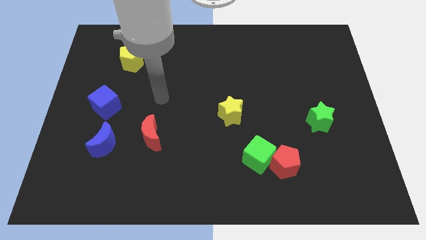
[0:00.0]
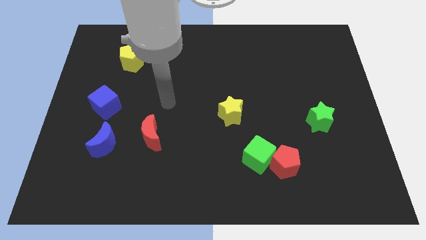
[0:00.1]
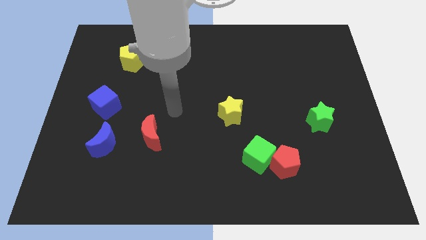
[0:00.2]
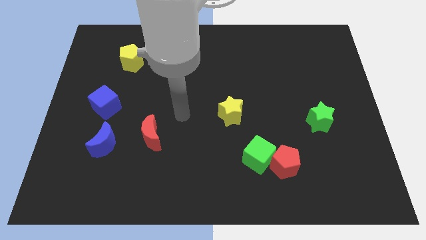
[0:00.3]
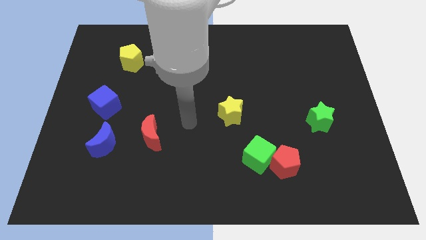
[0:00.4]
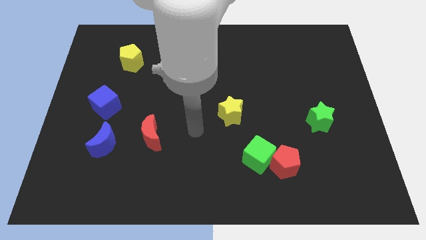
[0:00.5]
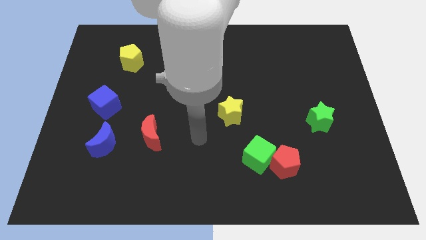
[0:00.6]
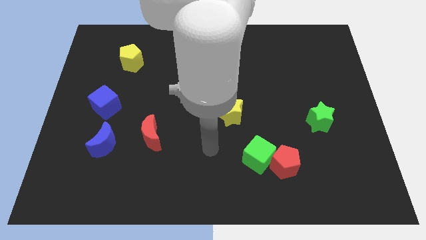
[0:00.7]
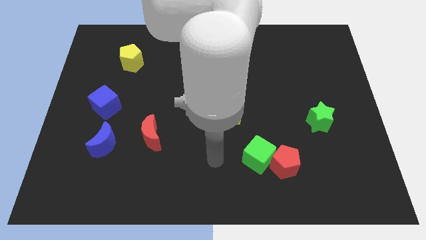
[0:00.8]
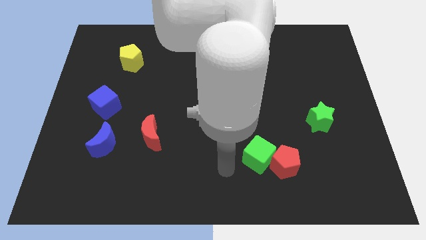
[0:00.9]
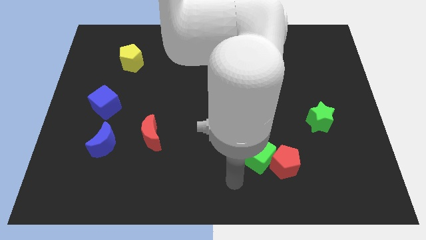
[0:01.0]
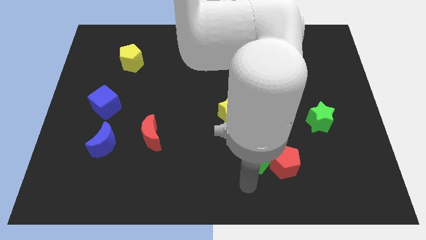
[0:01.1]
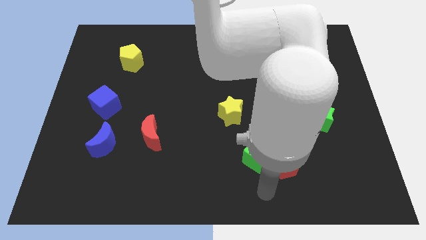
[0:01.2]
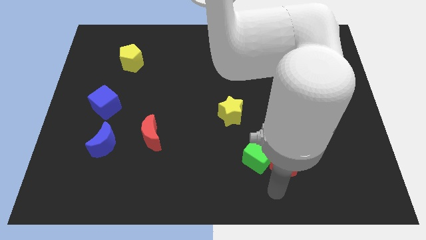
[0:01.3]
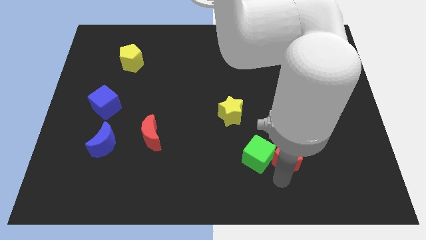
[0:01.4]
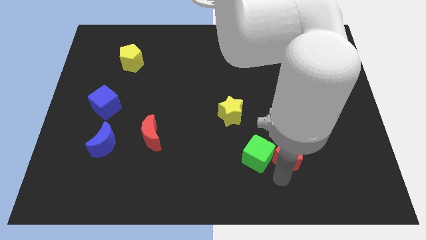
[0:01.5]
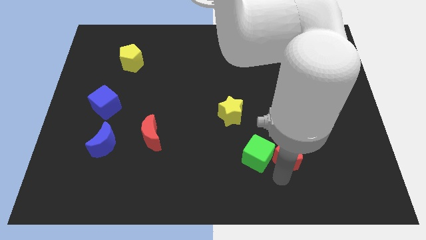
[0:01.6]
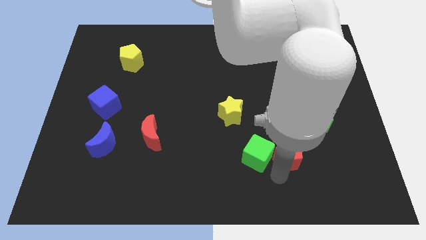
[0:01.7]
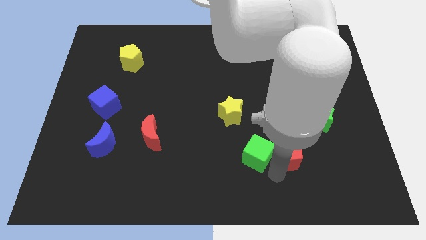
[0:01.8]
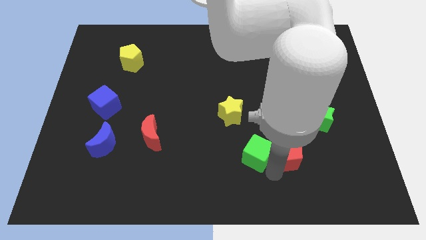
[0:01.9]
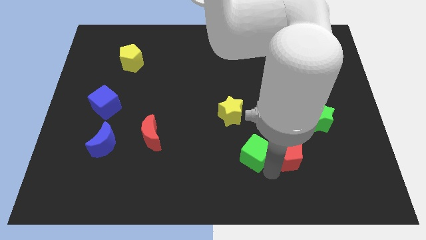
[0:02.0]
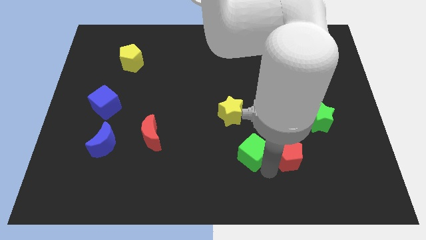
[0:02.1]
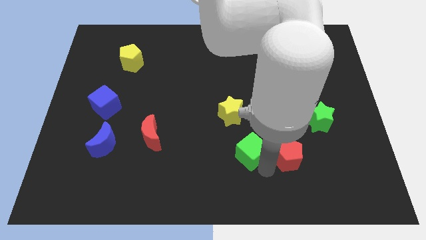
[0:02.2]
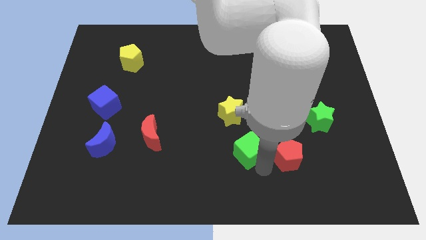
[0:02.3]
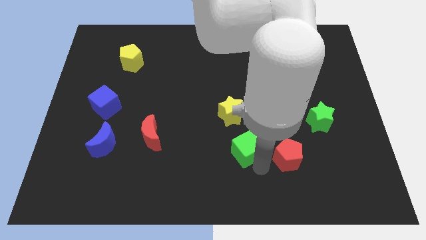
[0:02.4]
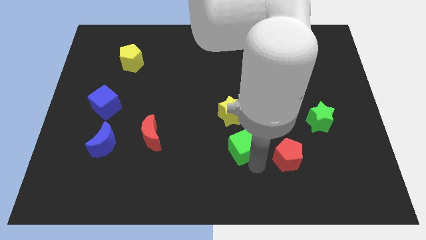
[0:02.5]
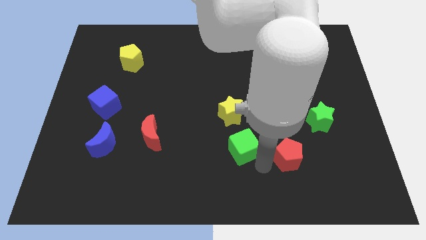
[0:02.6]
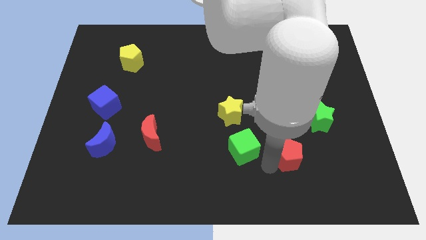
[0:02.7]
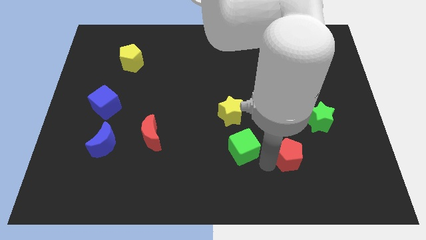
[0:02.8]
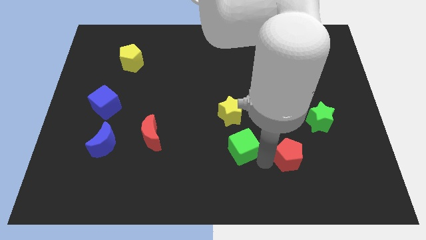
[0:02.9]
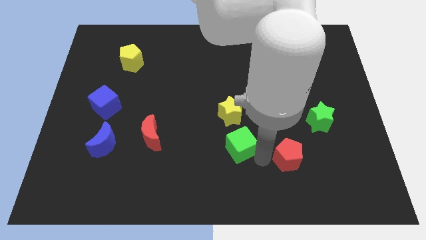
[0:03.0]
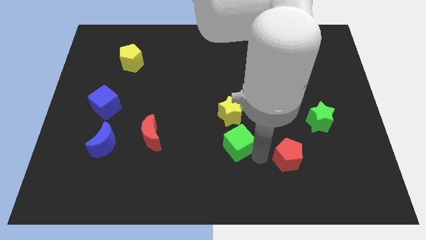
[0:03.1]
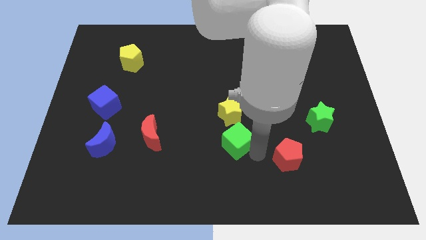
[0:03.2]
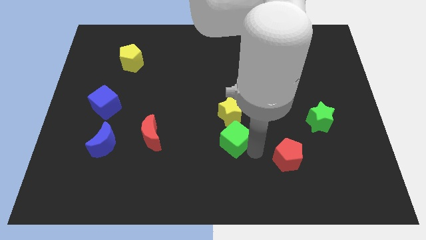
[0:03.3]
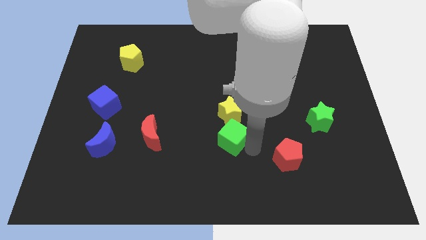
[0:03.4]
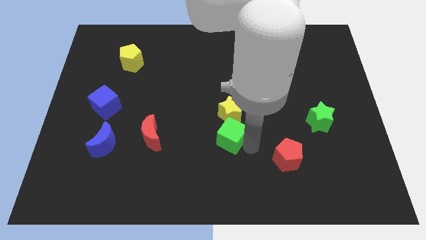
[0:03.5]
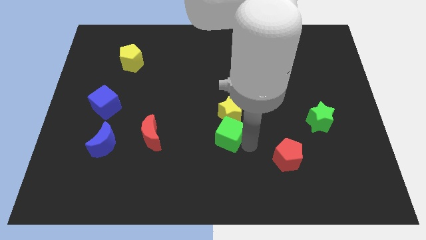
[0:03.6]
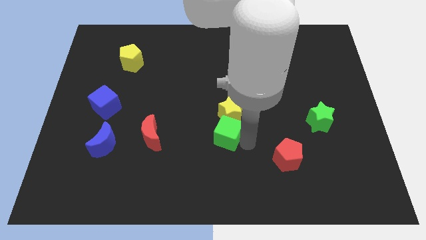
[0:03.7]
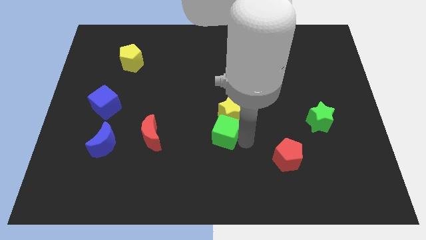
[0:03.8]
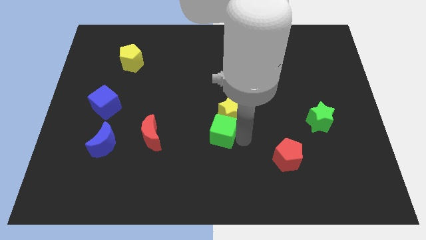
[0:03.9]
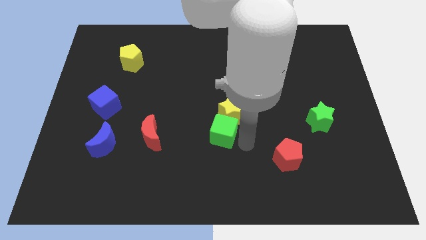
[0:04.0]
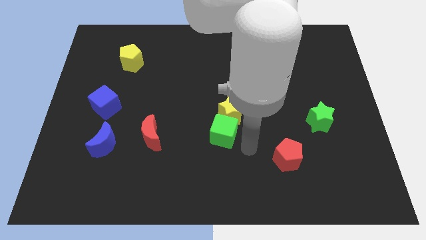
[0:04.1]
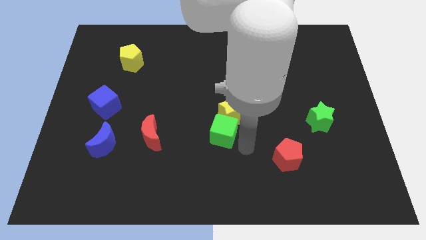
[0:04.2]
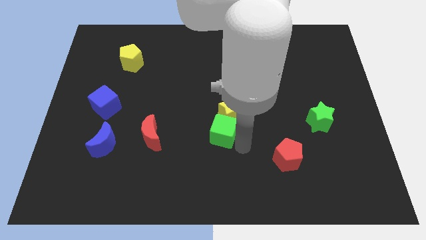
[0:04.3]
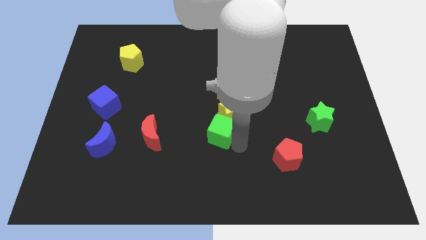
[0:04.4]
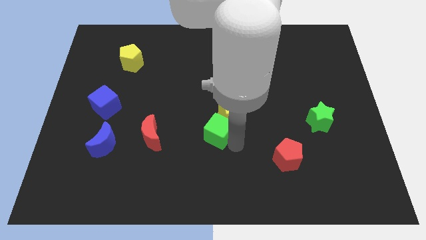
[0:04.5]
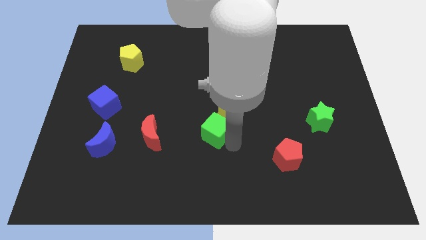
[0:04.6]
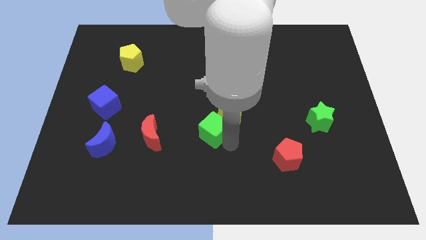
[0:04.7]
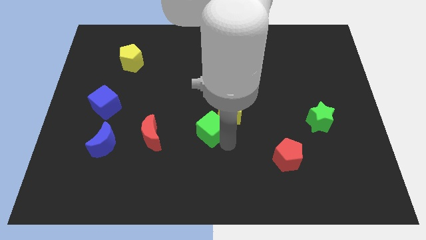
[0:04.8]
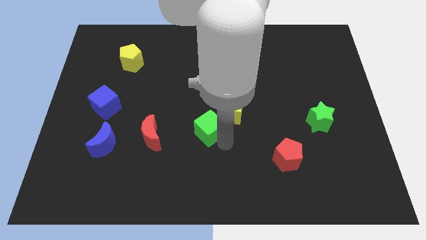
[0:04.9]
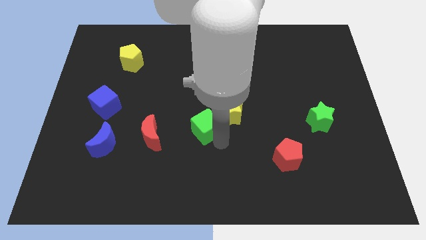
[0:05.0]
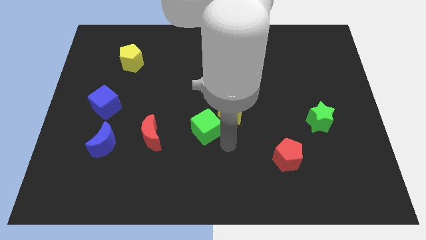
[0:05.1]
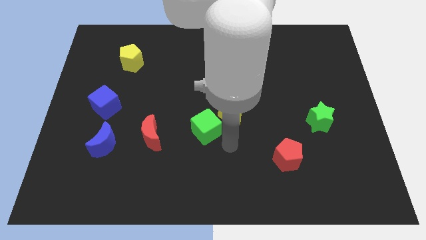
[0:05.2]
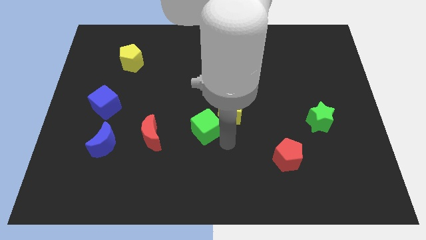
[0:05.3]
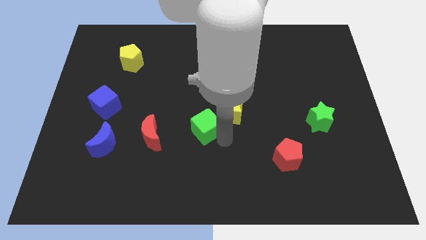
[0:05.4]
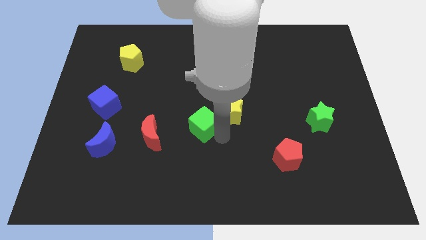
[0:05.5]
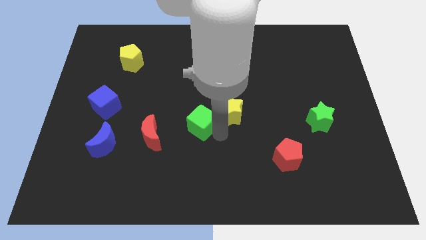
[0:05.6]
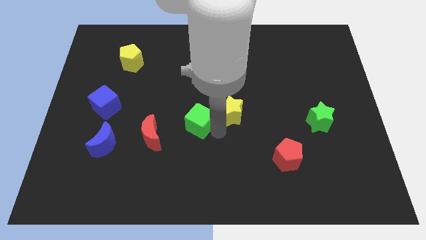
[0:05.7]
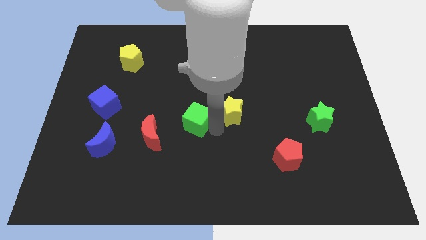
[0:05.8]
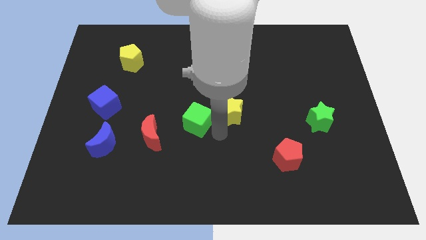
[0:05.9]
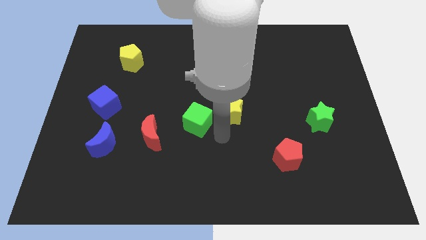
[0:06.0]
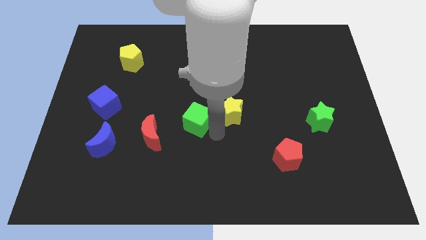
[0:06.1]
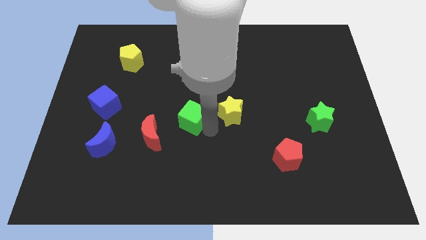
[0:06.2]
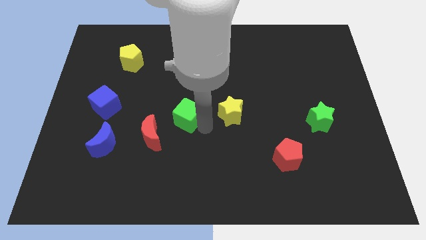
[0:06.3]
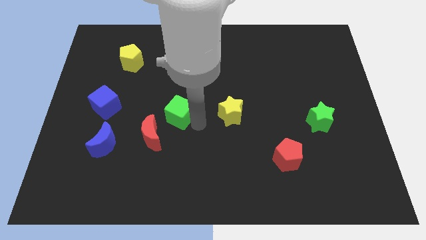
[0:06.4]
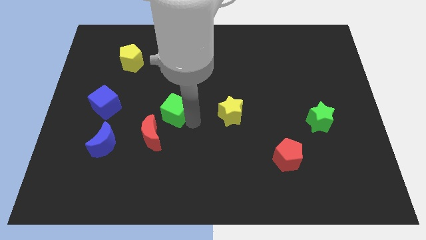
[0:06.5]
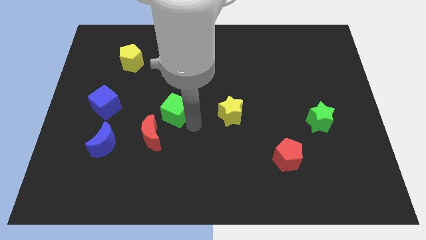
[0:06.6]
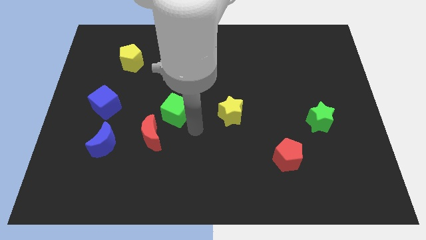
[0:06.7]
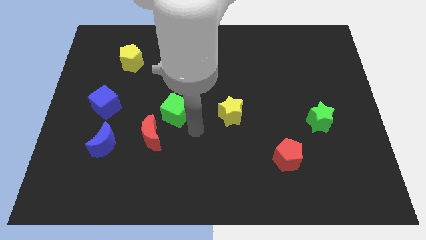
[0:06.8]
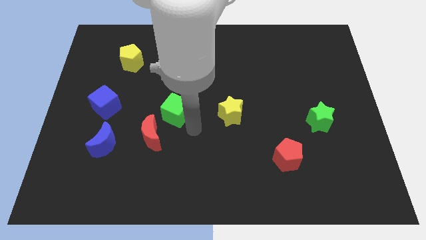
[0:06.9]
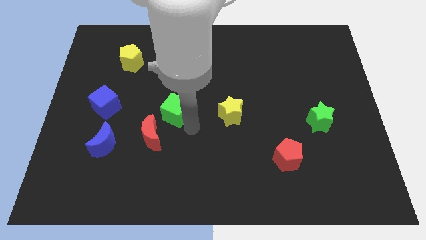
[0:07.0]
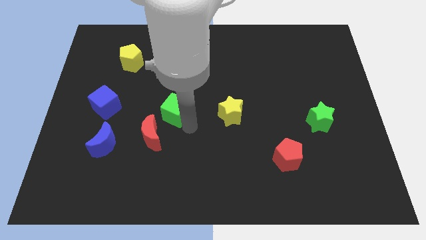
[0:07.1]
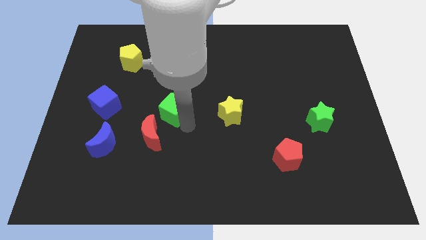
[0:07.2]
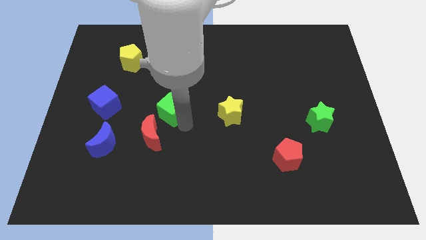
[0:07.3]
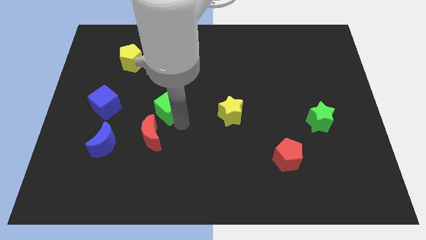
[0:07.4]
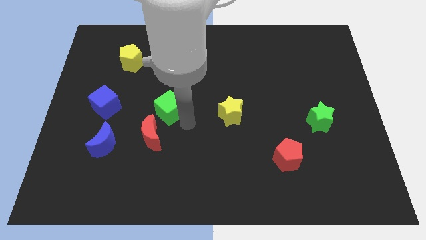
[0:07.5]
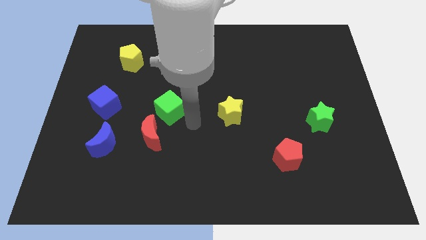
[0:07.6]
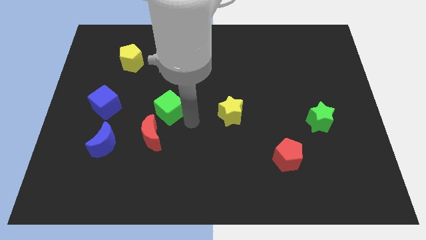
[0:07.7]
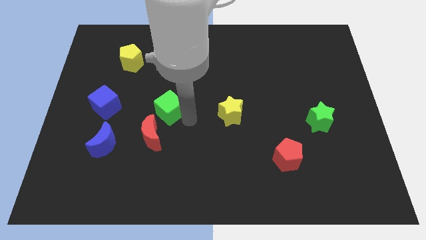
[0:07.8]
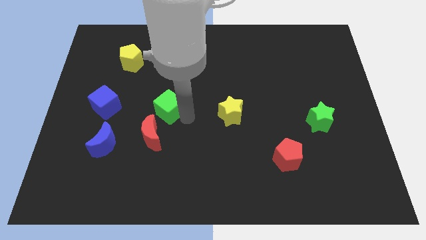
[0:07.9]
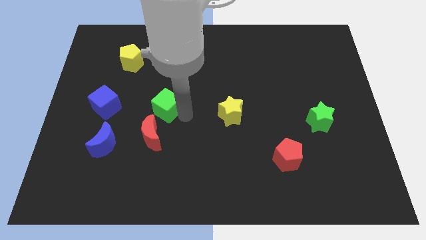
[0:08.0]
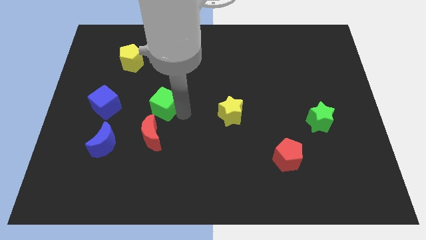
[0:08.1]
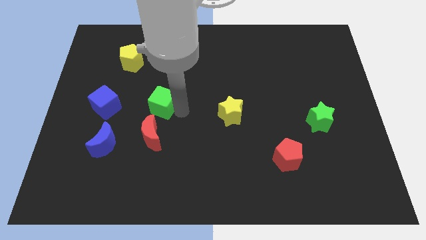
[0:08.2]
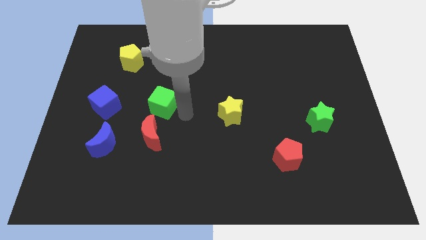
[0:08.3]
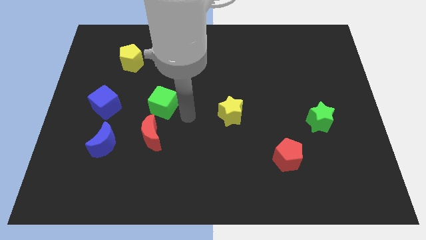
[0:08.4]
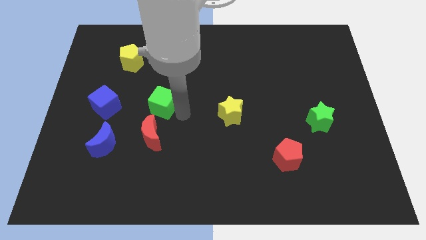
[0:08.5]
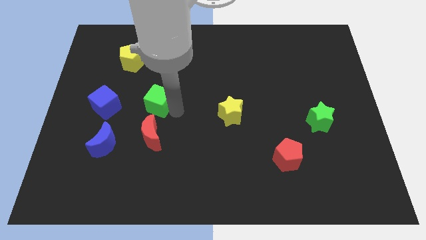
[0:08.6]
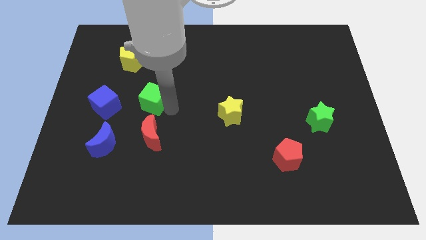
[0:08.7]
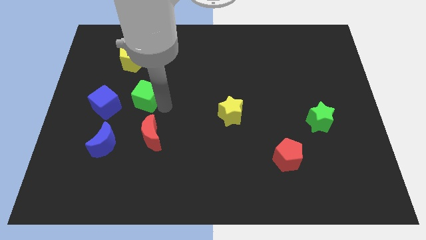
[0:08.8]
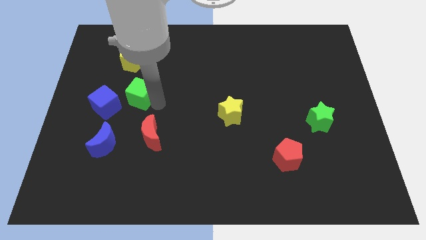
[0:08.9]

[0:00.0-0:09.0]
push the green cube diagonally up and to the right of the blue cube
